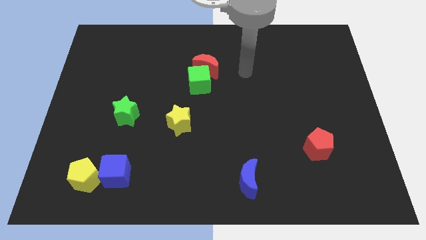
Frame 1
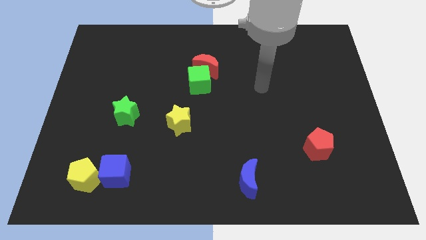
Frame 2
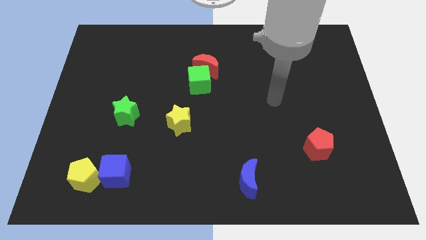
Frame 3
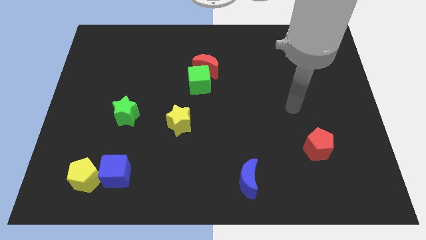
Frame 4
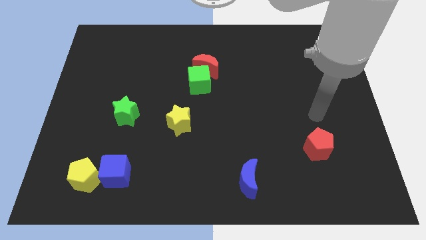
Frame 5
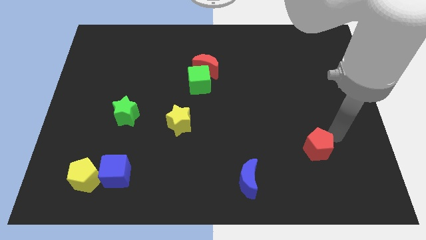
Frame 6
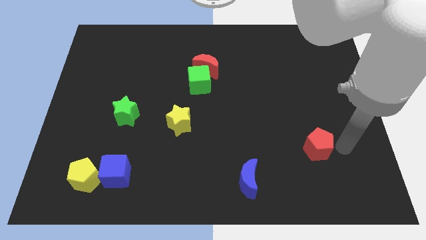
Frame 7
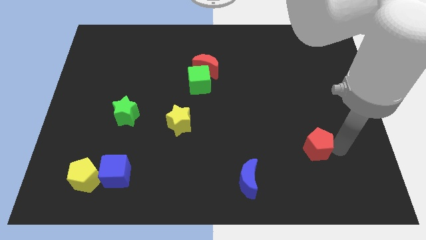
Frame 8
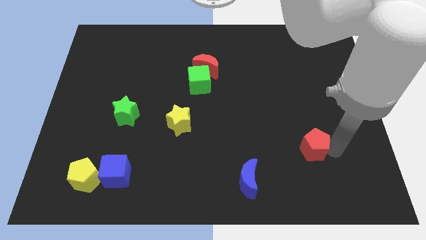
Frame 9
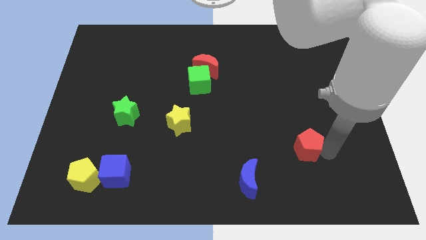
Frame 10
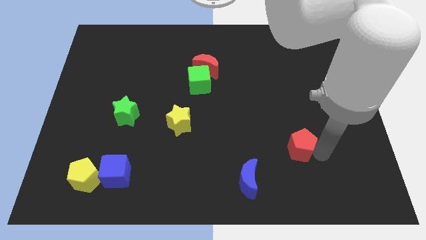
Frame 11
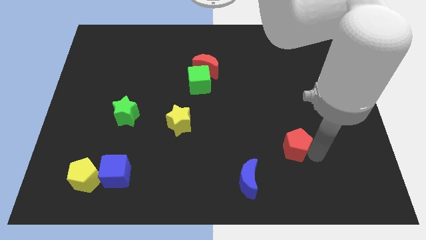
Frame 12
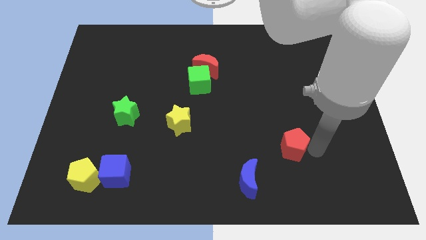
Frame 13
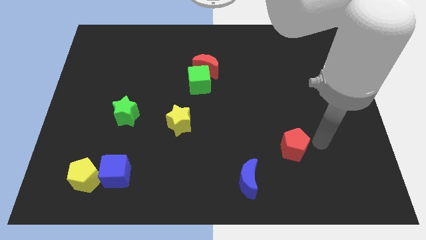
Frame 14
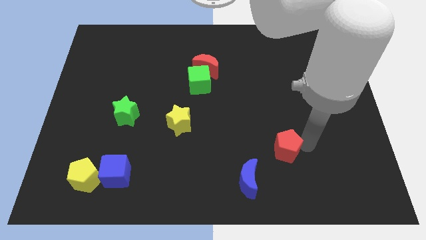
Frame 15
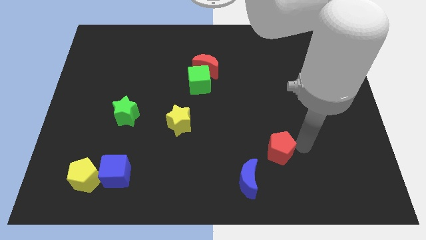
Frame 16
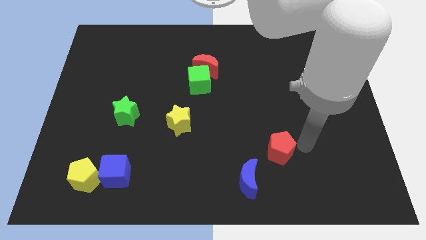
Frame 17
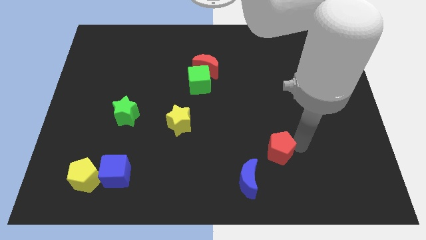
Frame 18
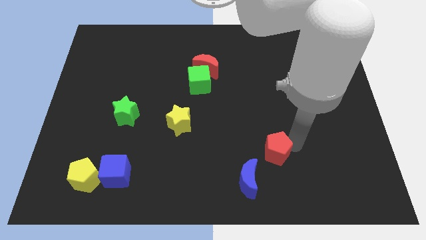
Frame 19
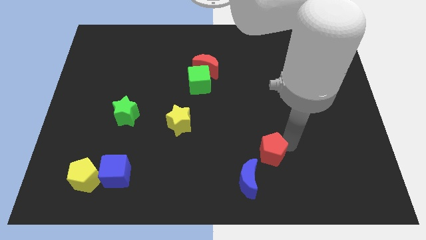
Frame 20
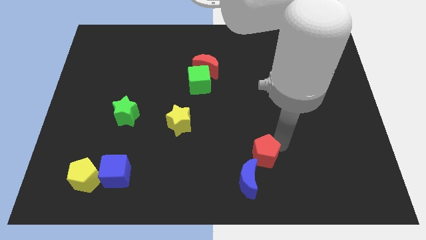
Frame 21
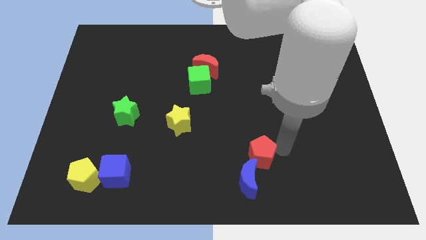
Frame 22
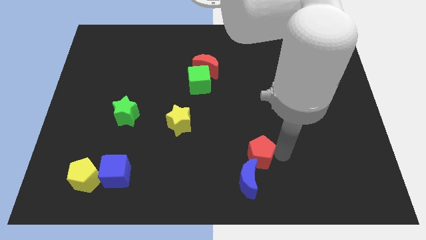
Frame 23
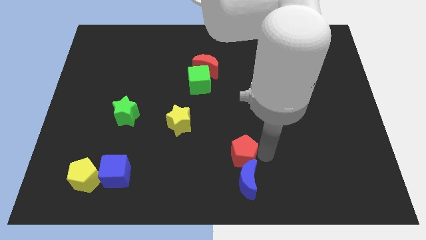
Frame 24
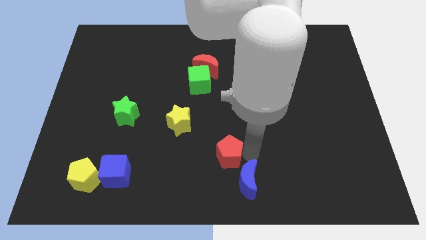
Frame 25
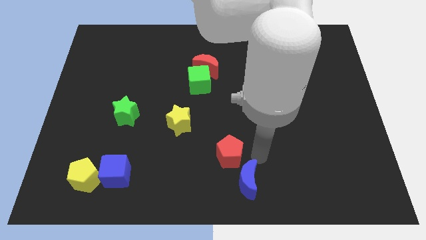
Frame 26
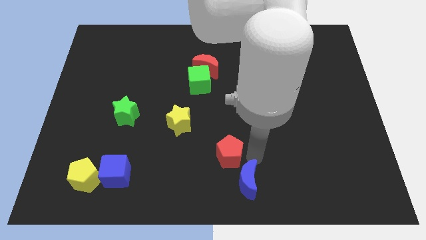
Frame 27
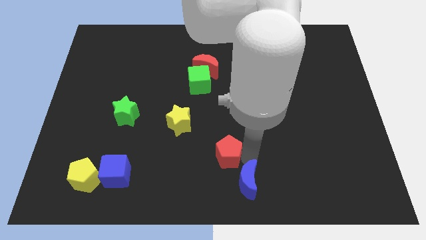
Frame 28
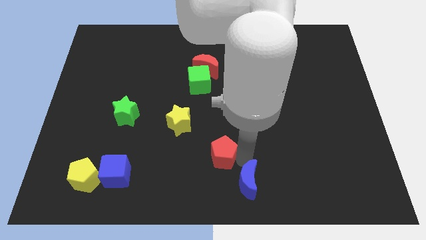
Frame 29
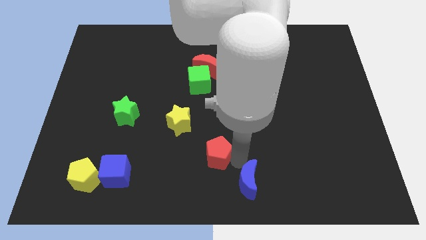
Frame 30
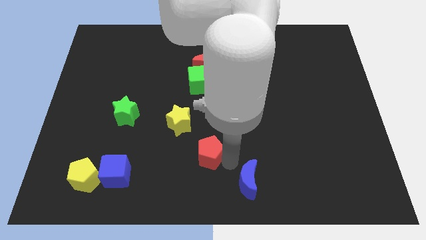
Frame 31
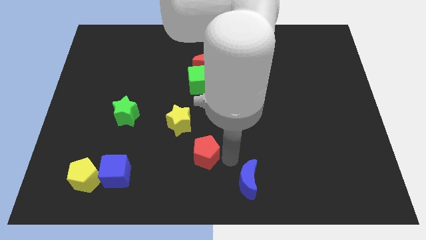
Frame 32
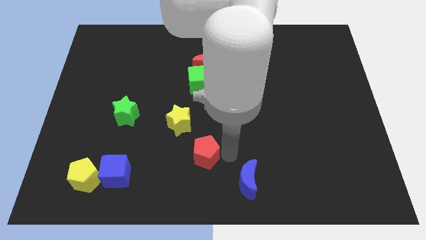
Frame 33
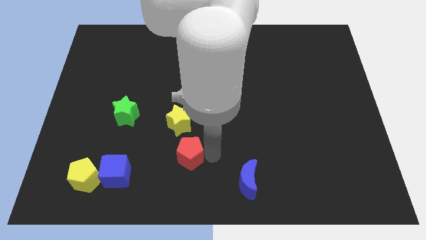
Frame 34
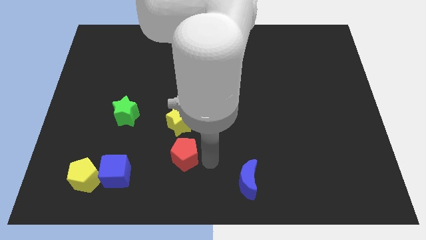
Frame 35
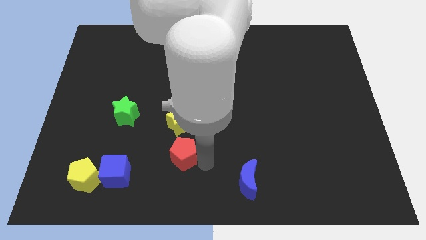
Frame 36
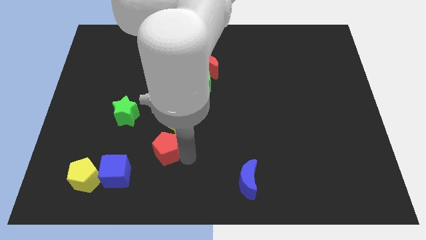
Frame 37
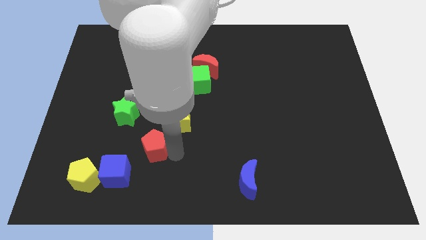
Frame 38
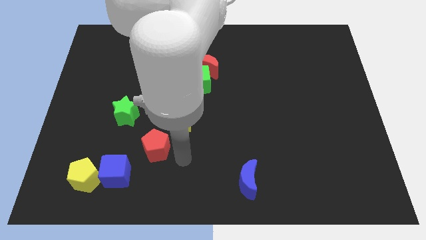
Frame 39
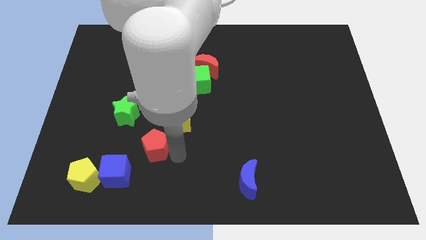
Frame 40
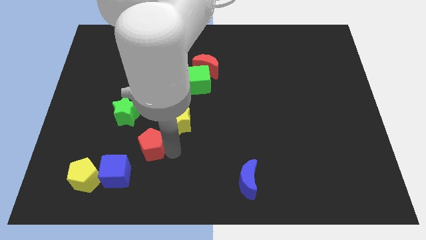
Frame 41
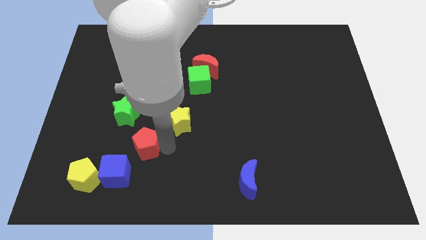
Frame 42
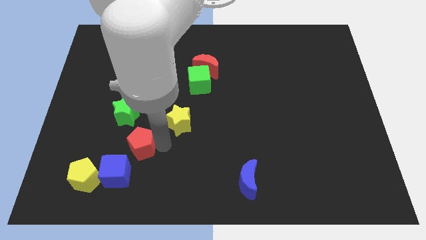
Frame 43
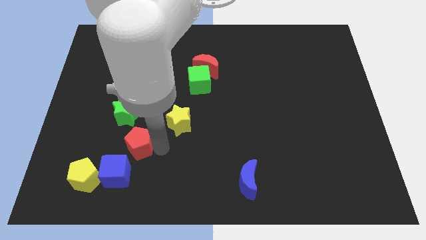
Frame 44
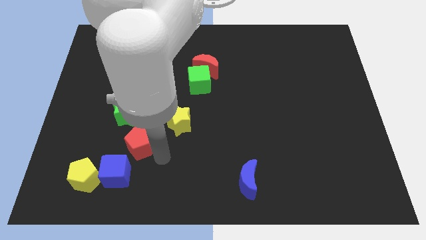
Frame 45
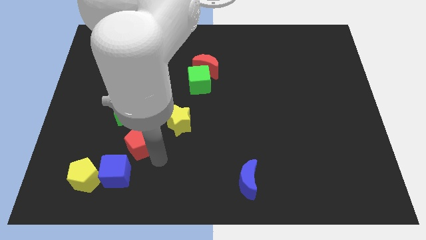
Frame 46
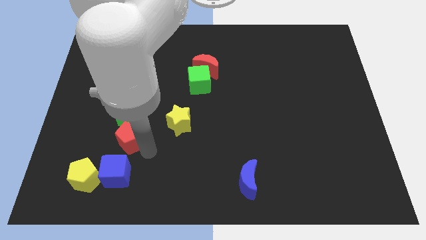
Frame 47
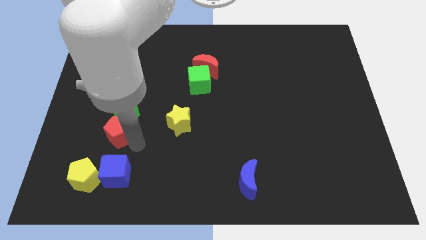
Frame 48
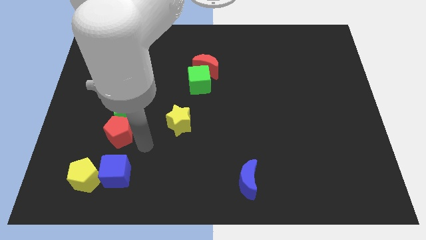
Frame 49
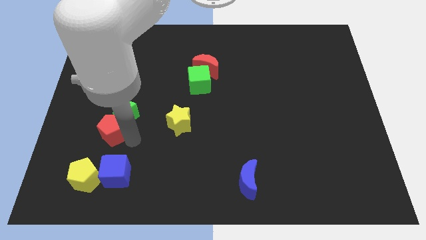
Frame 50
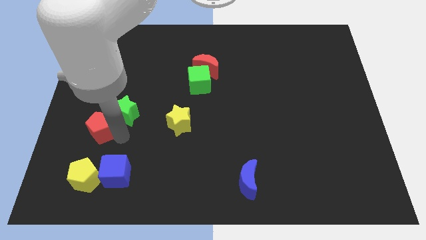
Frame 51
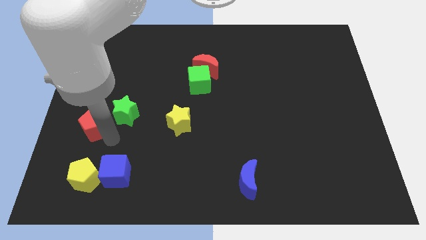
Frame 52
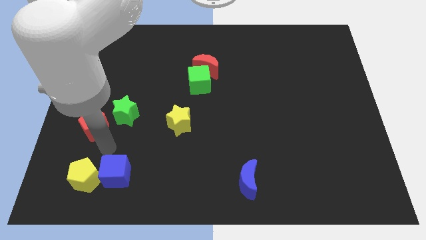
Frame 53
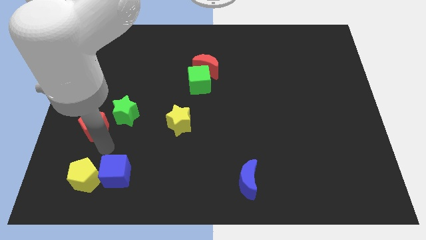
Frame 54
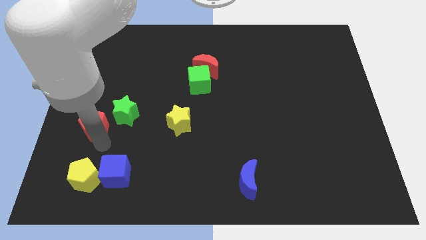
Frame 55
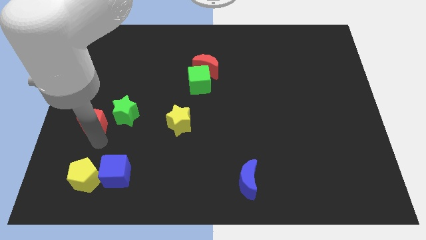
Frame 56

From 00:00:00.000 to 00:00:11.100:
move the red pentagon to the center left

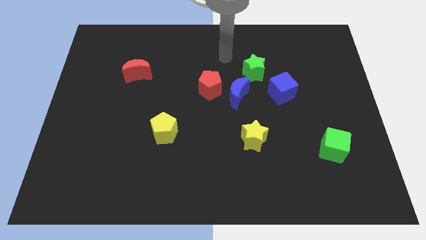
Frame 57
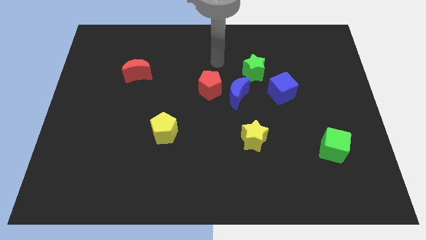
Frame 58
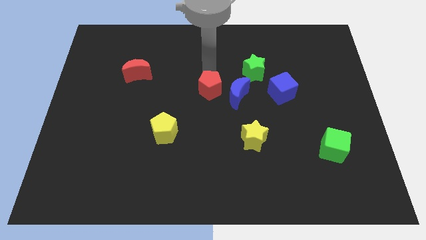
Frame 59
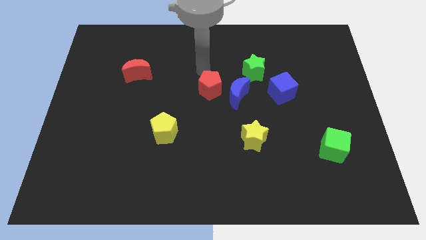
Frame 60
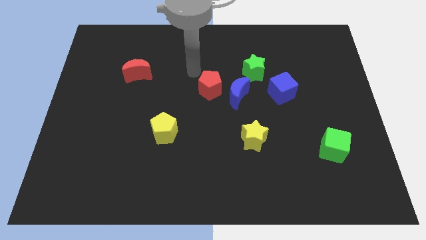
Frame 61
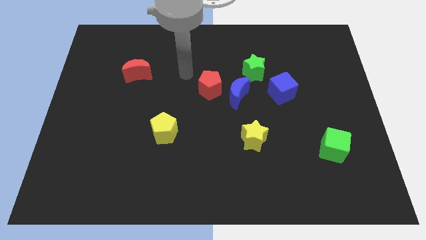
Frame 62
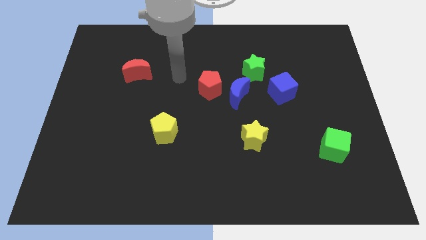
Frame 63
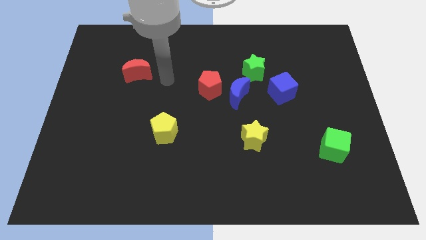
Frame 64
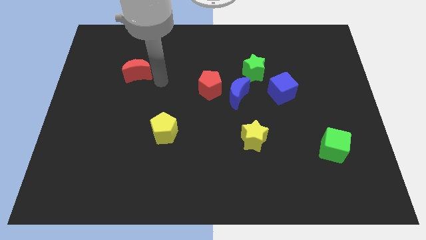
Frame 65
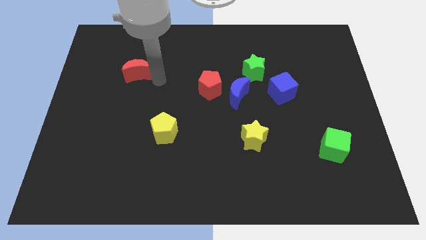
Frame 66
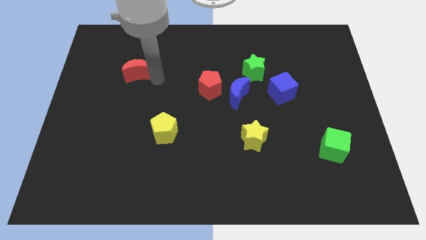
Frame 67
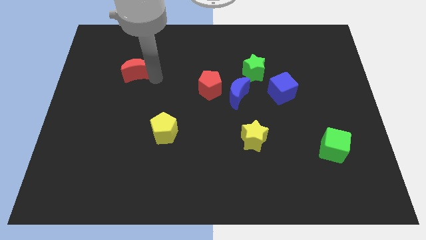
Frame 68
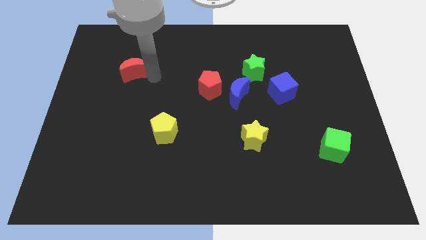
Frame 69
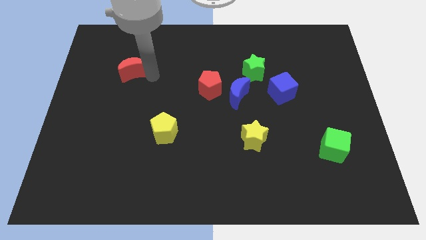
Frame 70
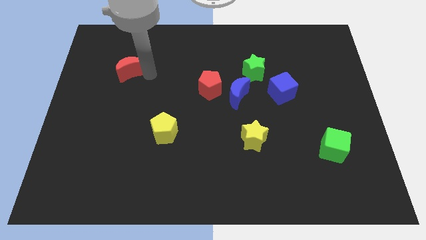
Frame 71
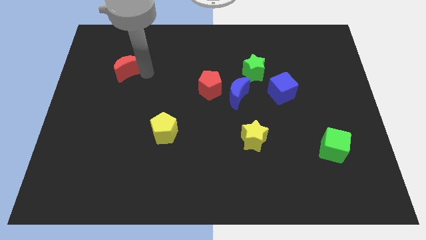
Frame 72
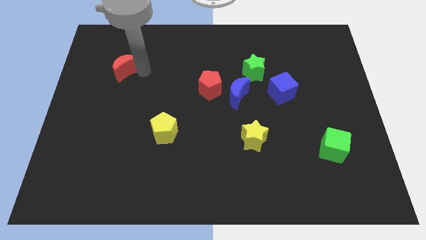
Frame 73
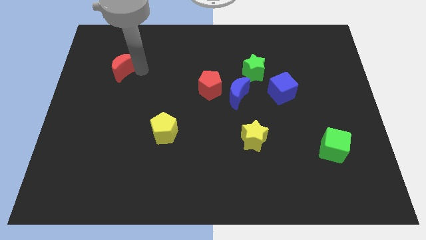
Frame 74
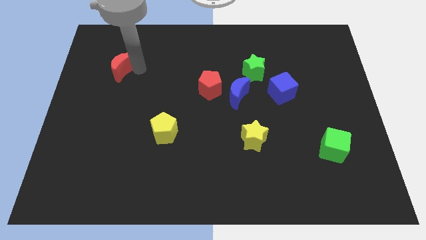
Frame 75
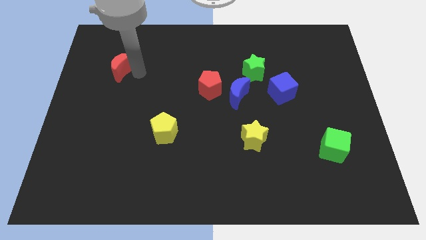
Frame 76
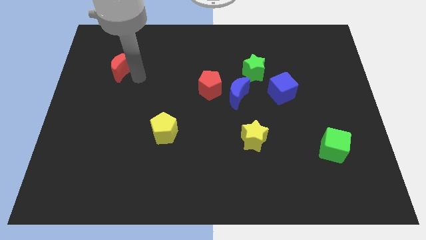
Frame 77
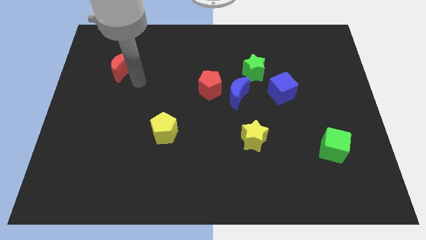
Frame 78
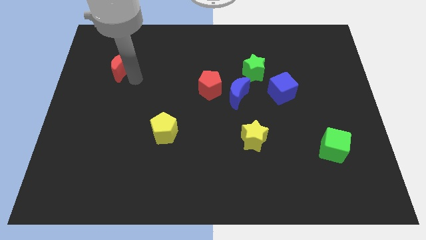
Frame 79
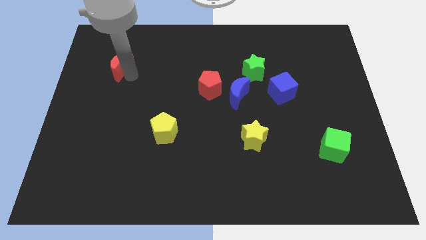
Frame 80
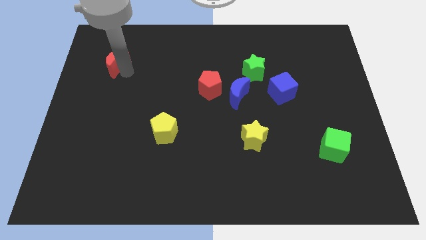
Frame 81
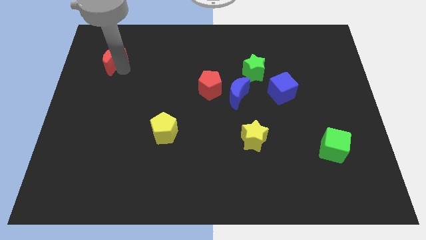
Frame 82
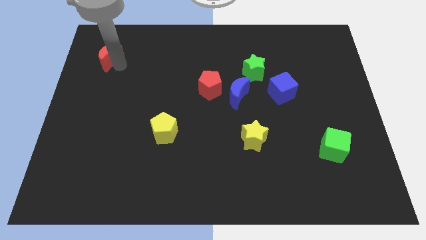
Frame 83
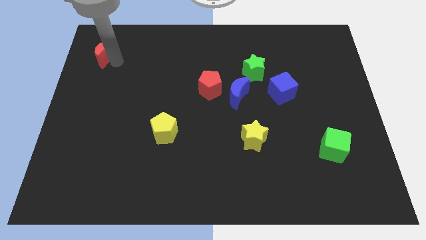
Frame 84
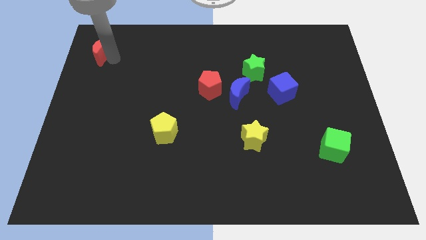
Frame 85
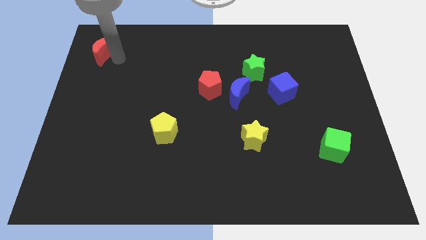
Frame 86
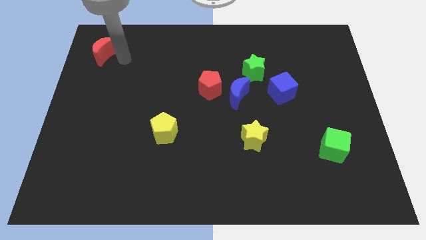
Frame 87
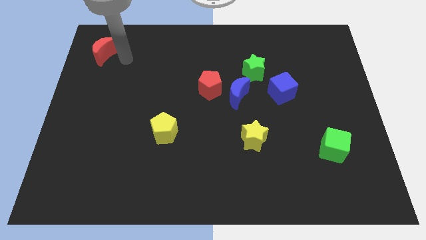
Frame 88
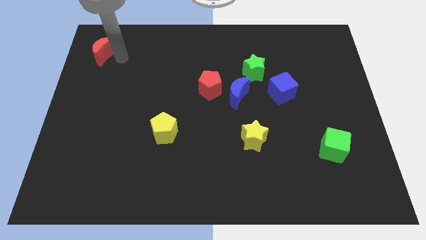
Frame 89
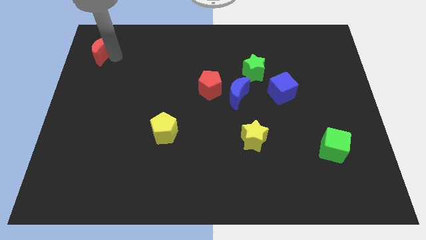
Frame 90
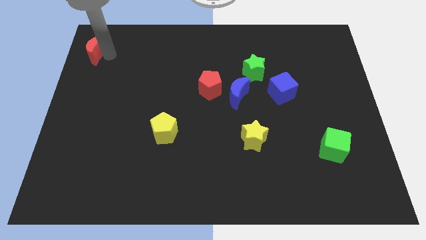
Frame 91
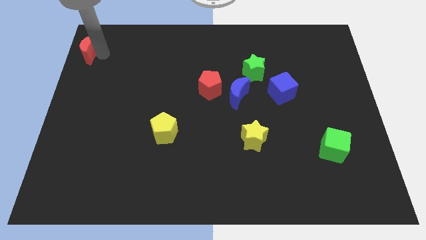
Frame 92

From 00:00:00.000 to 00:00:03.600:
put the red moon to the upper left corner
